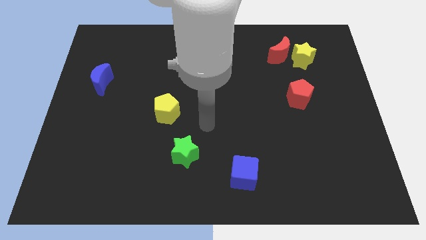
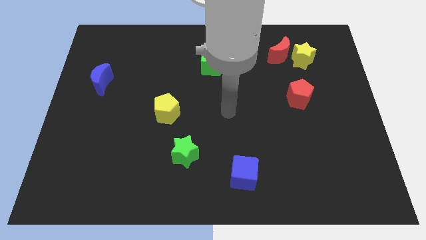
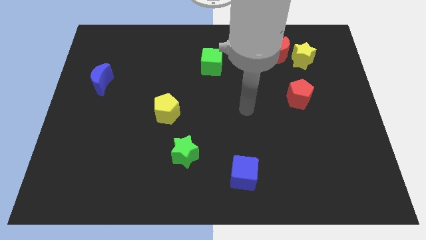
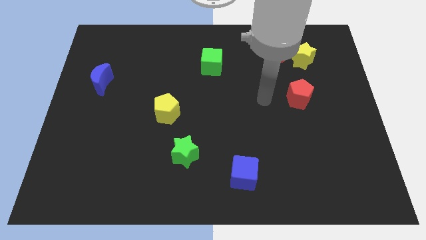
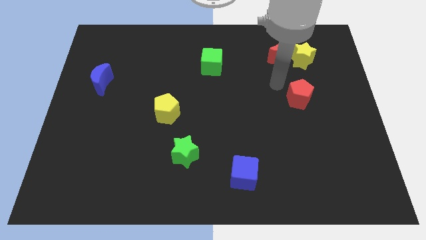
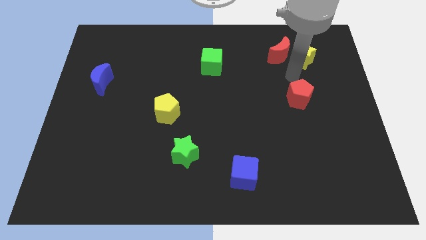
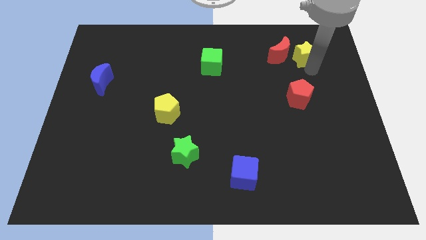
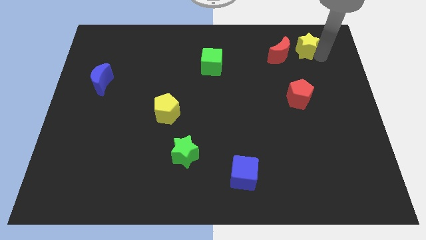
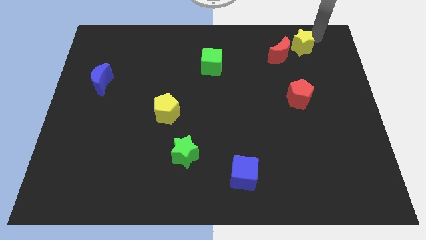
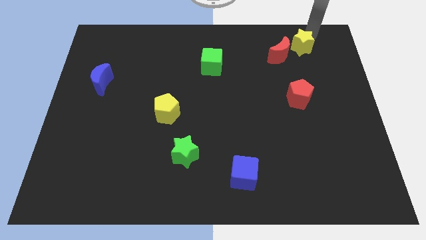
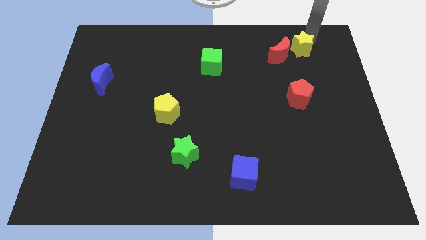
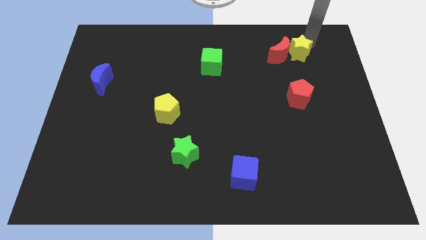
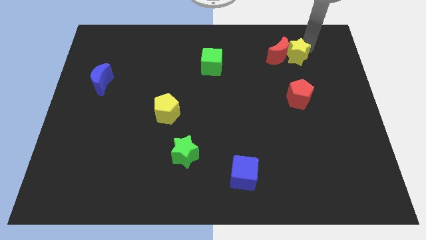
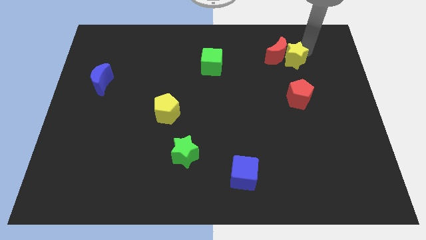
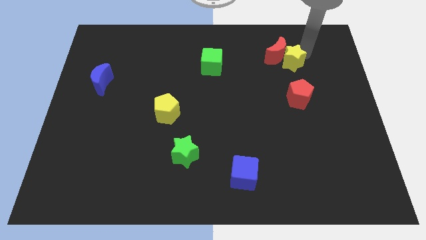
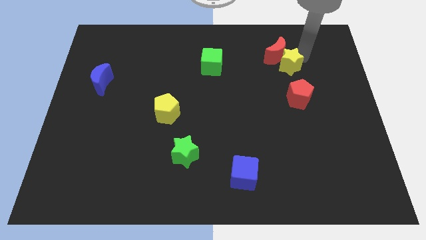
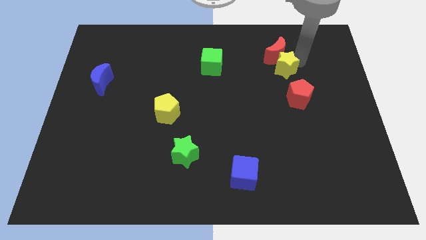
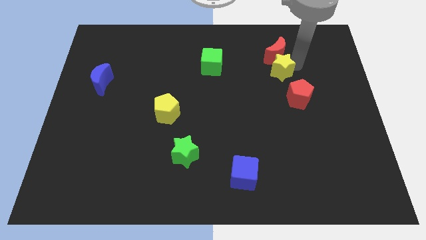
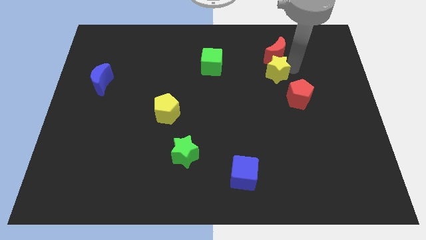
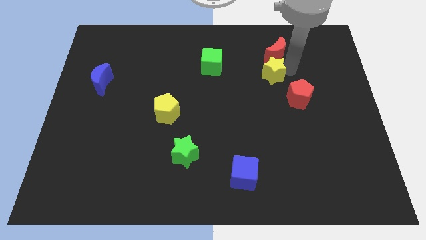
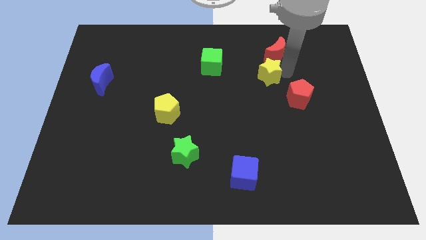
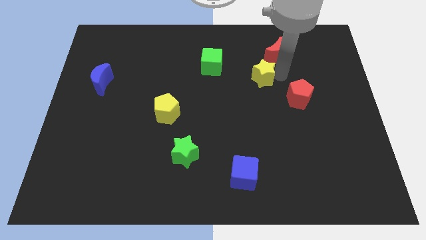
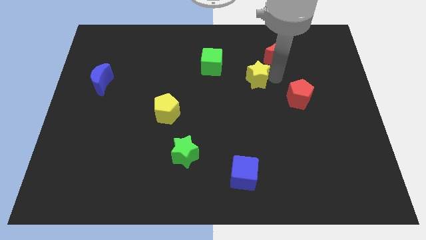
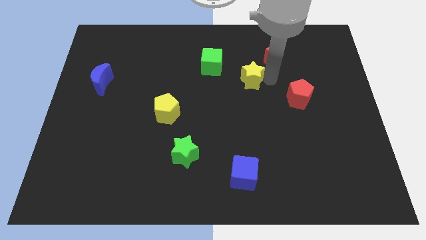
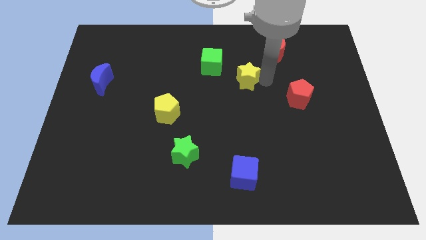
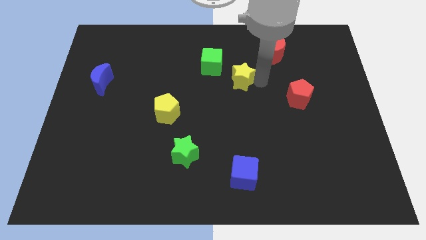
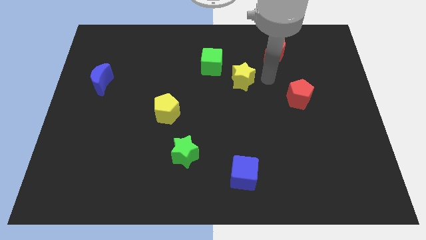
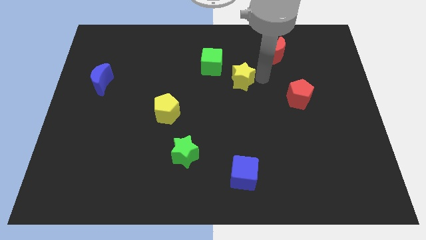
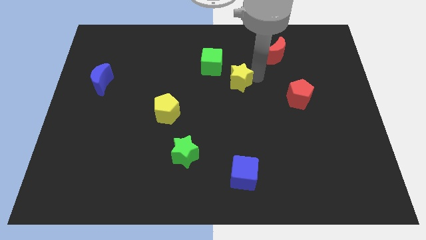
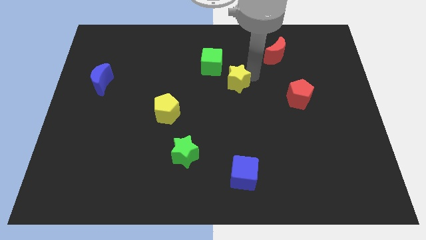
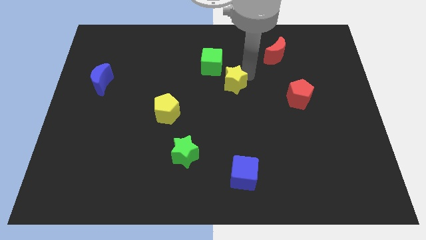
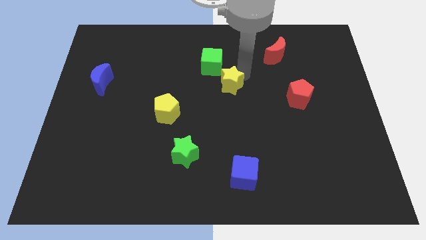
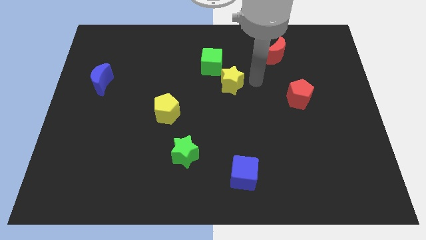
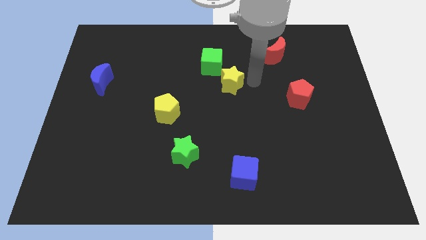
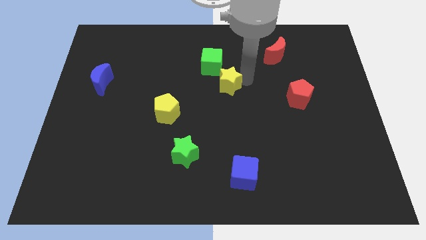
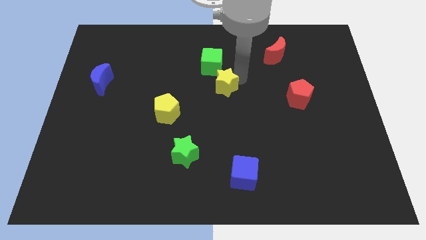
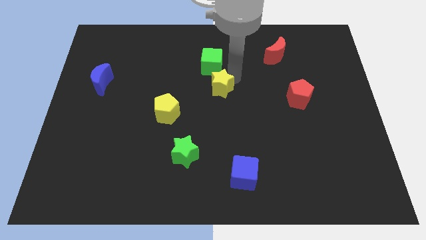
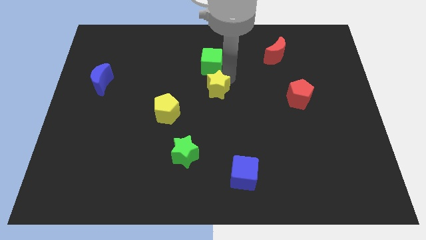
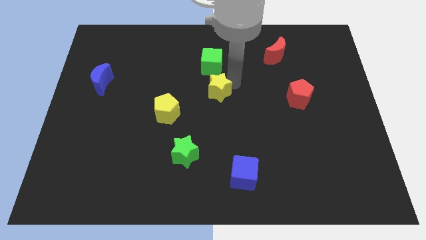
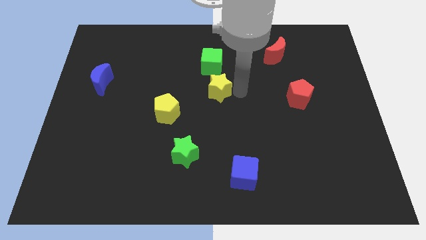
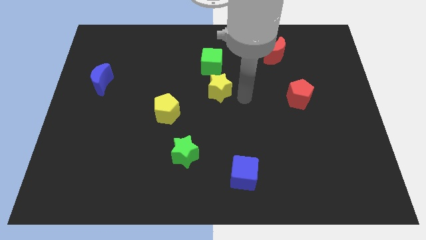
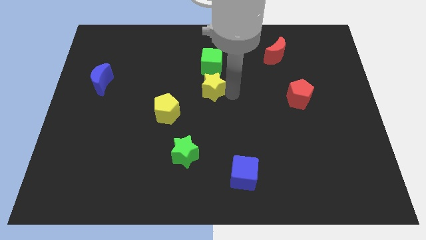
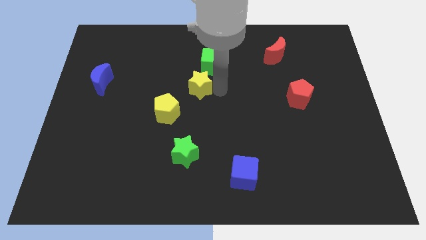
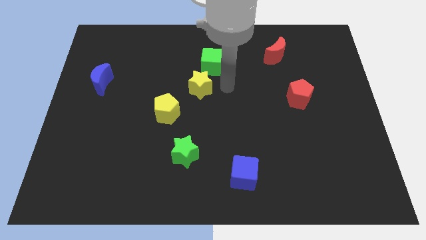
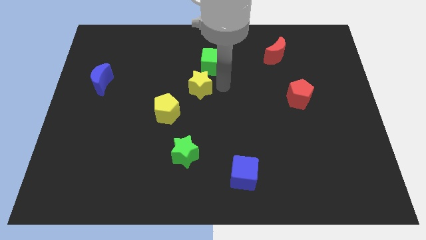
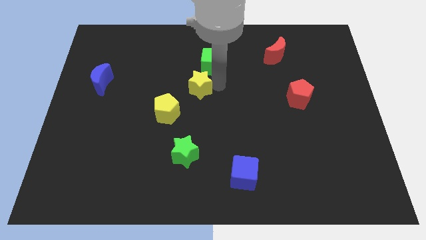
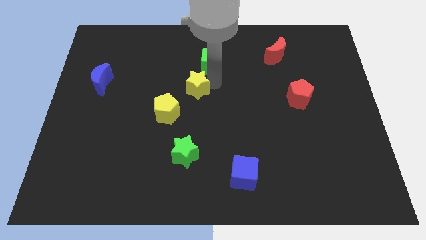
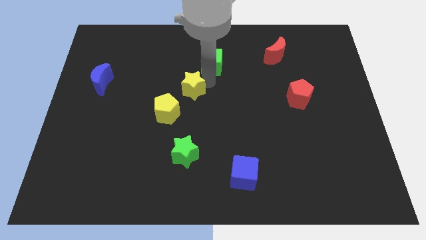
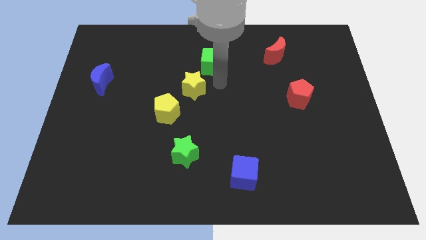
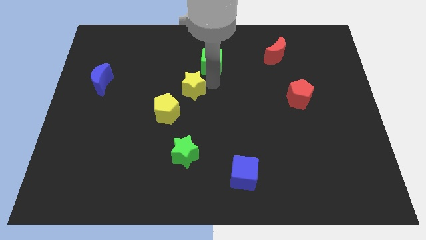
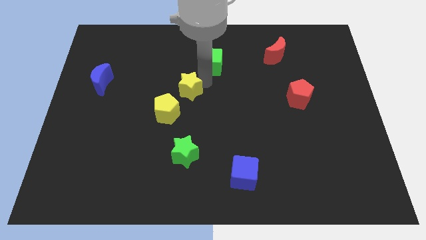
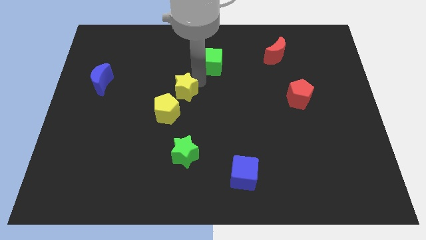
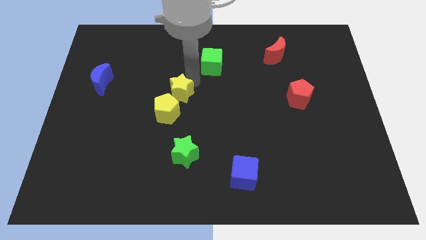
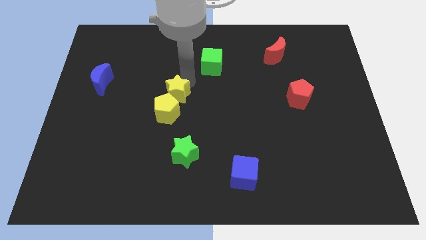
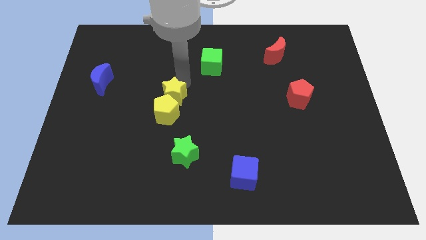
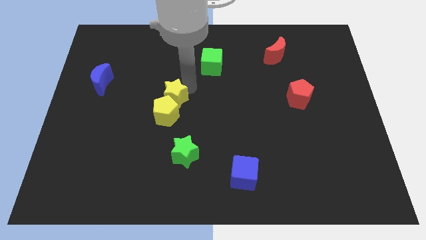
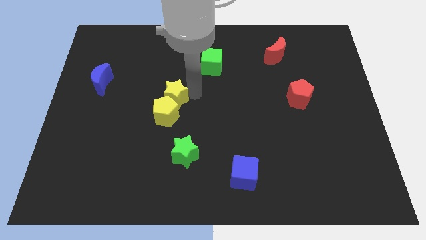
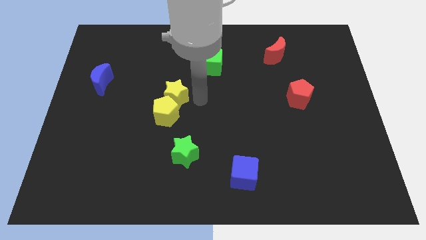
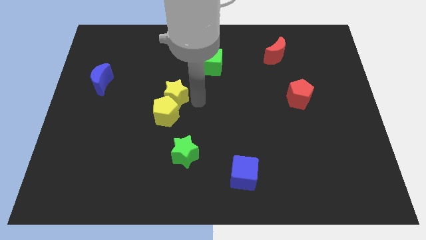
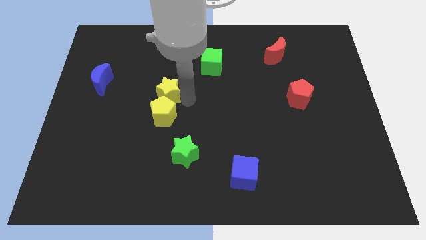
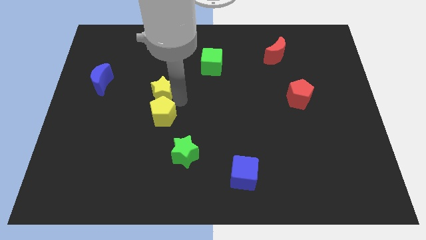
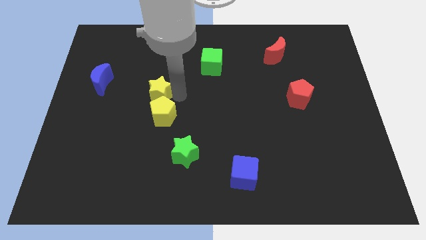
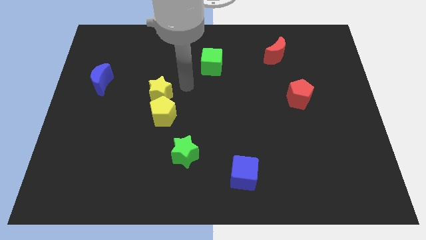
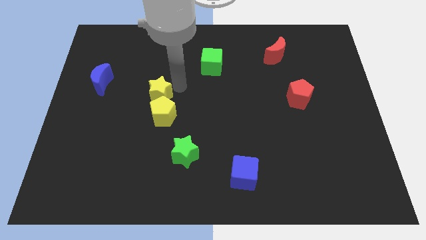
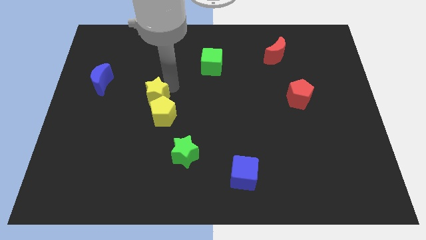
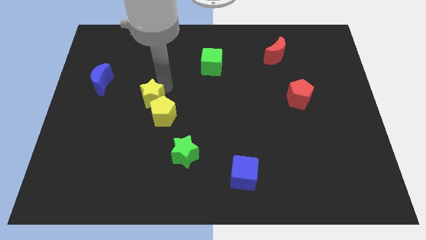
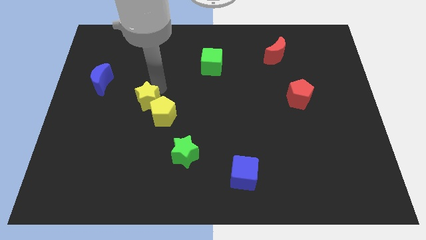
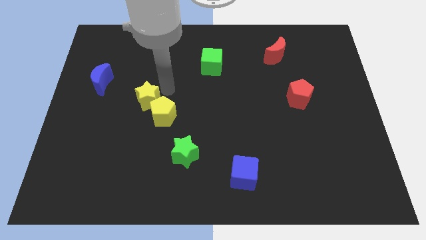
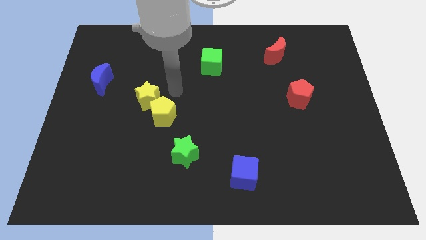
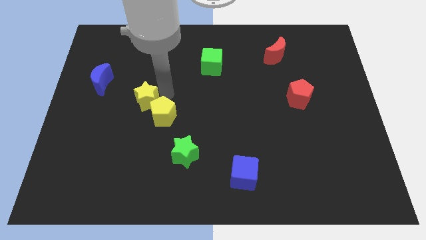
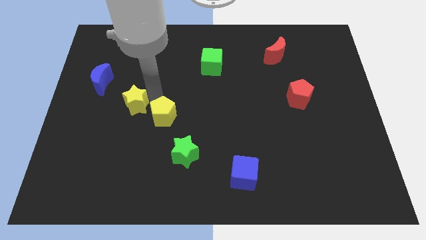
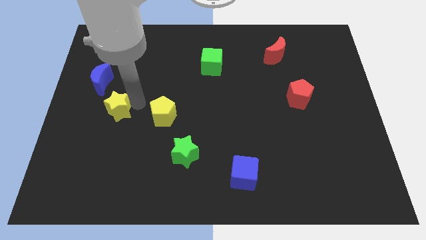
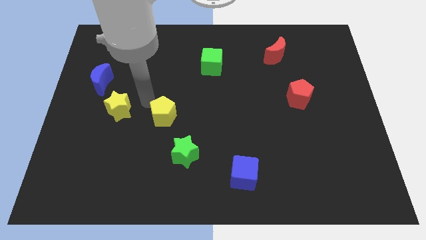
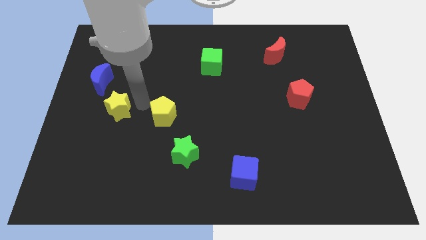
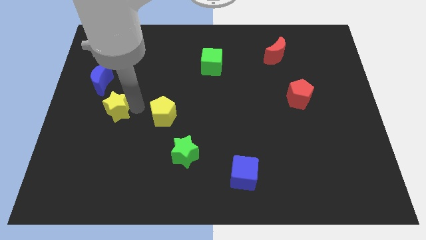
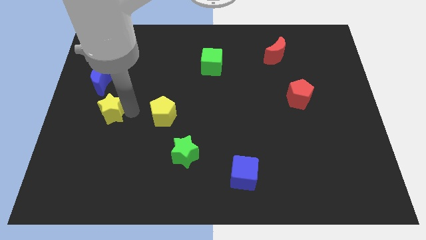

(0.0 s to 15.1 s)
move the yellow star below the blue moon

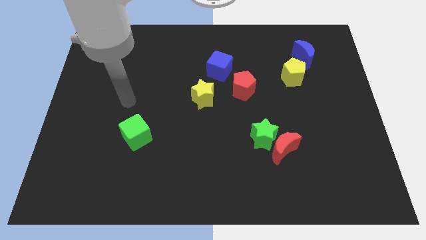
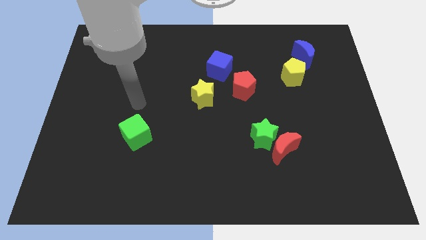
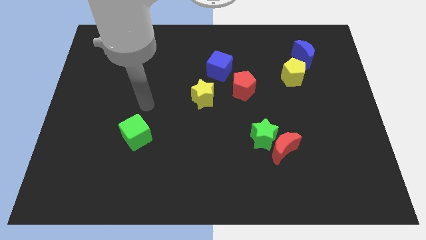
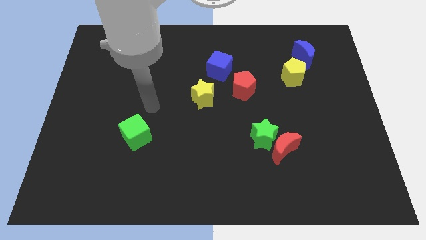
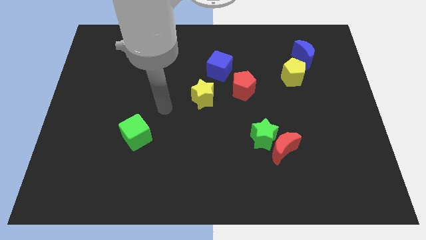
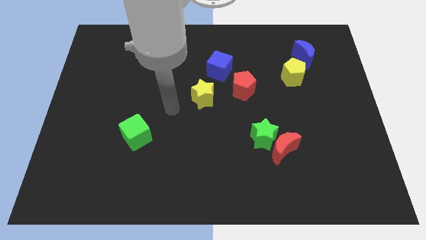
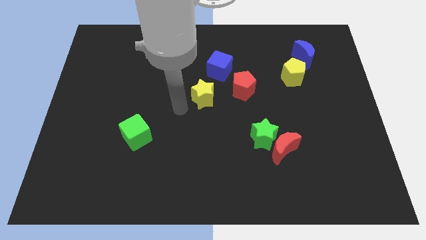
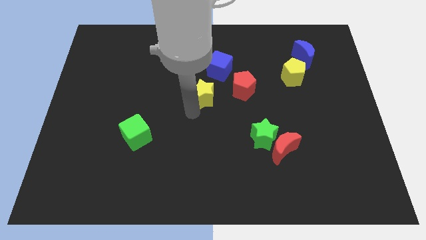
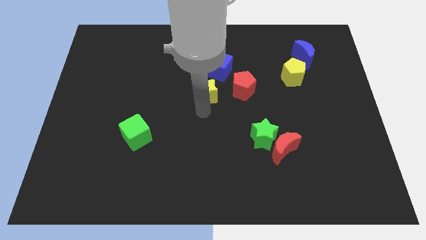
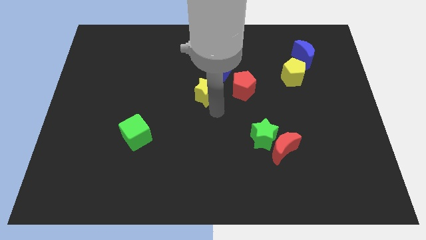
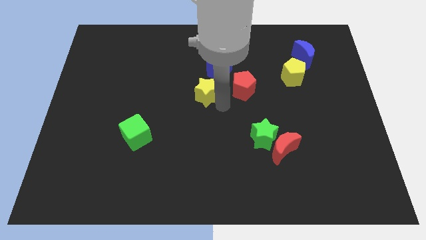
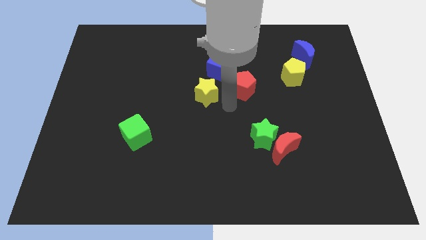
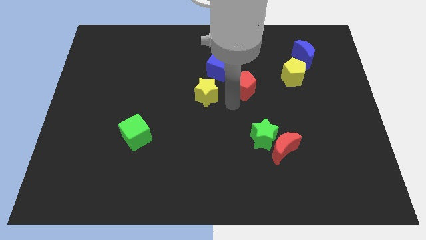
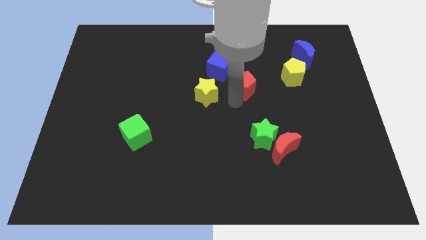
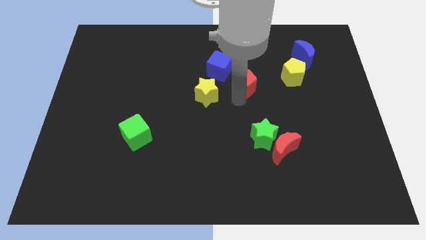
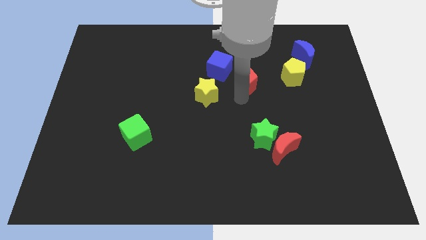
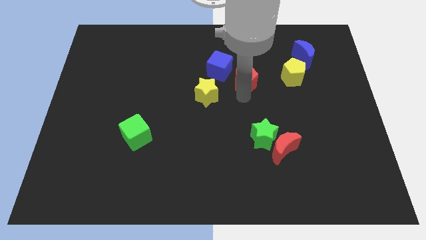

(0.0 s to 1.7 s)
push the red pentagon just right of the blue cube
